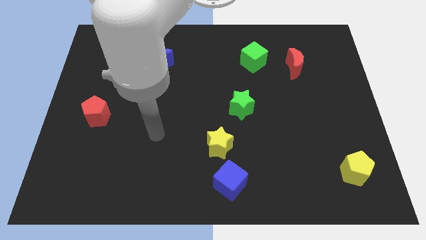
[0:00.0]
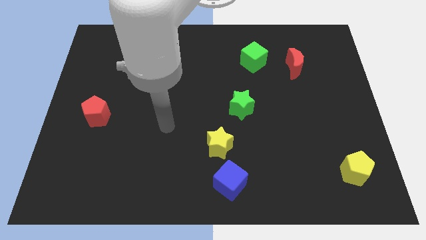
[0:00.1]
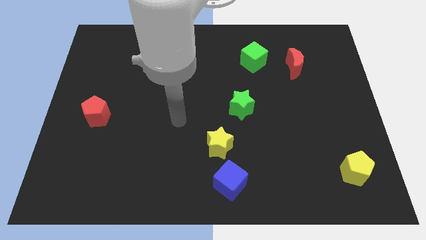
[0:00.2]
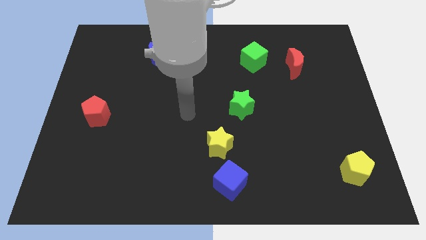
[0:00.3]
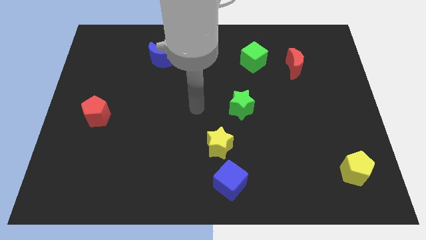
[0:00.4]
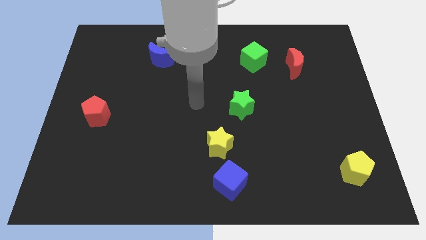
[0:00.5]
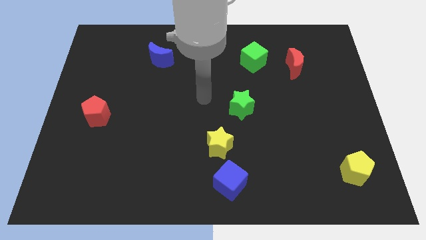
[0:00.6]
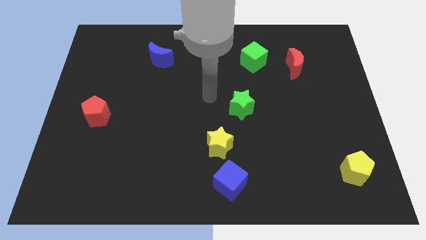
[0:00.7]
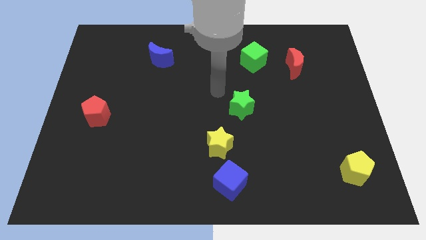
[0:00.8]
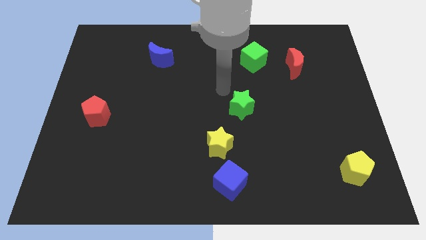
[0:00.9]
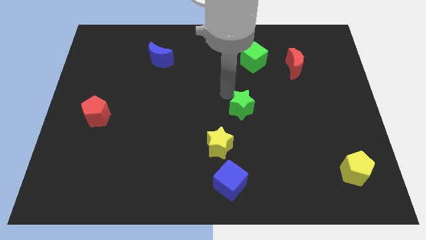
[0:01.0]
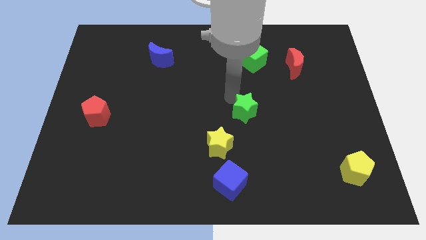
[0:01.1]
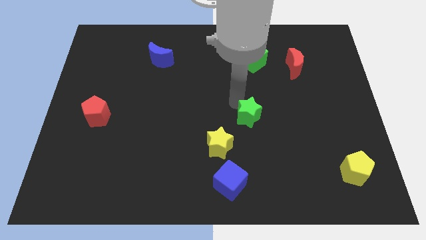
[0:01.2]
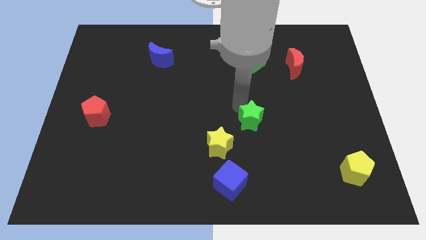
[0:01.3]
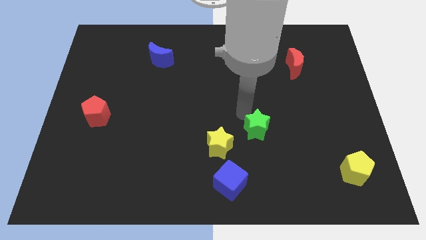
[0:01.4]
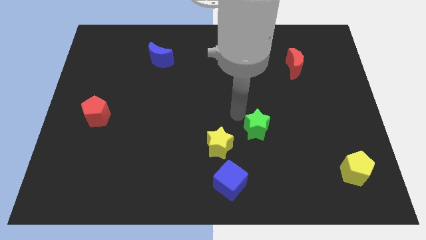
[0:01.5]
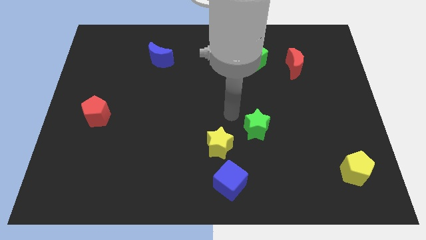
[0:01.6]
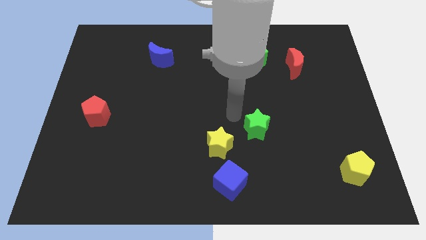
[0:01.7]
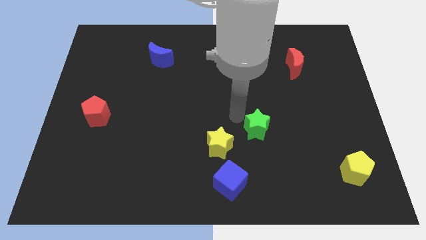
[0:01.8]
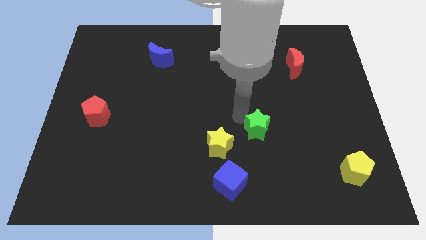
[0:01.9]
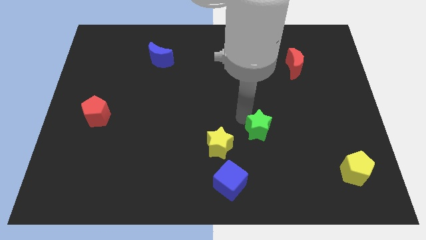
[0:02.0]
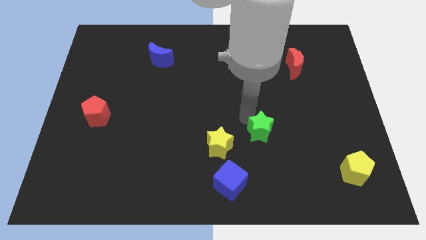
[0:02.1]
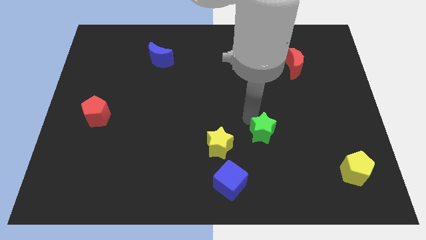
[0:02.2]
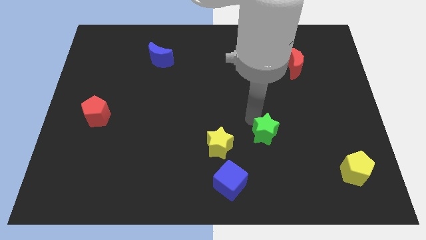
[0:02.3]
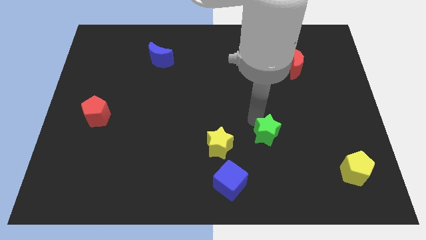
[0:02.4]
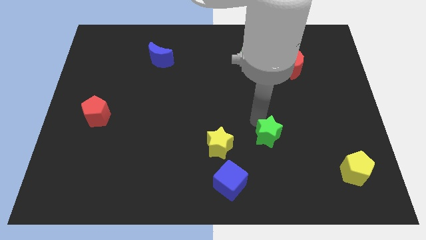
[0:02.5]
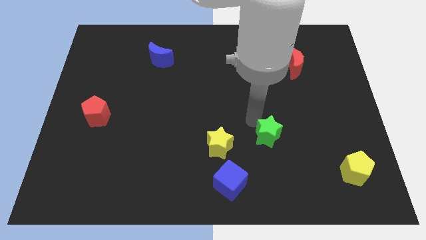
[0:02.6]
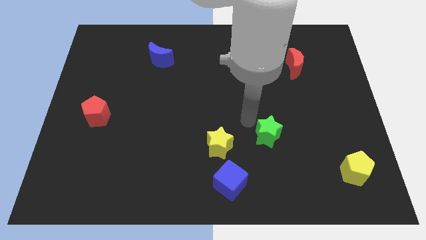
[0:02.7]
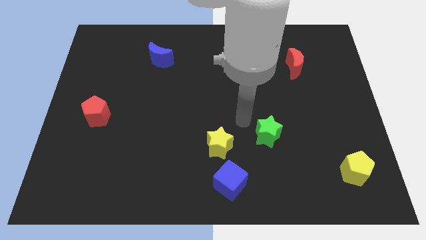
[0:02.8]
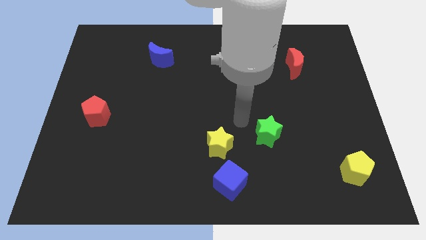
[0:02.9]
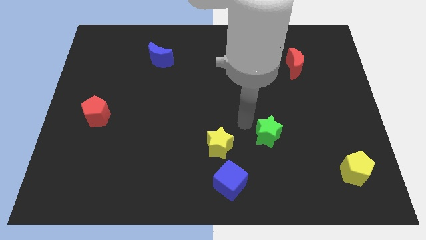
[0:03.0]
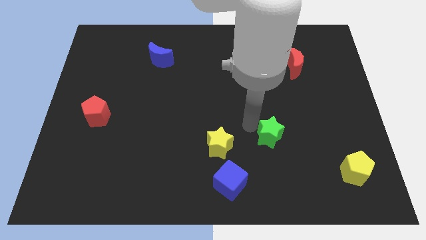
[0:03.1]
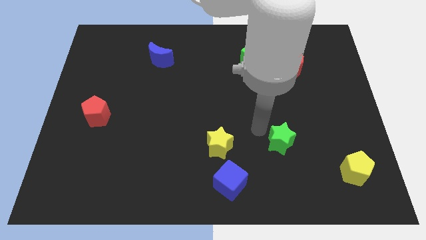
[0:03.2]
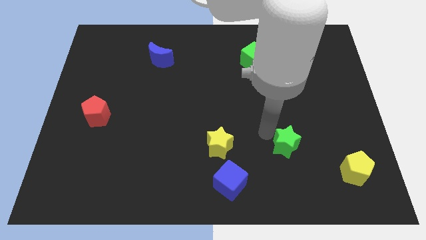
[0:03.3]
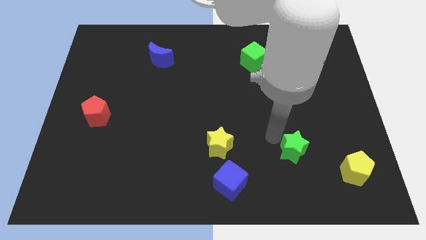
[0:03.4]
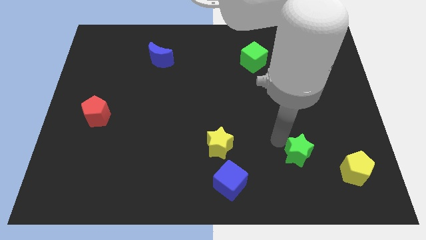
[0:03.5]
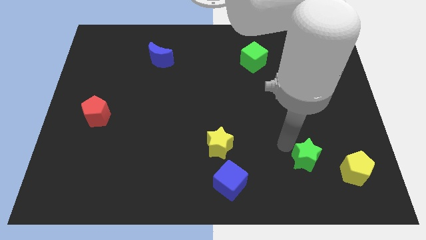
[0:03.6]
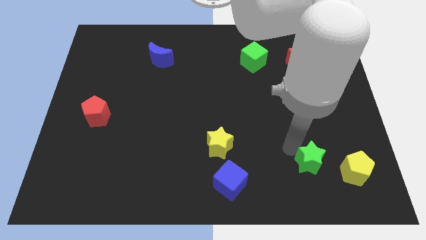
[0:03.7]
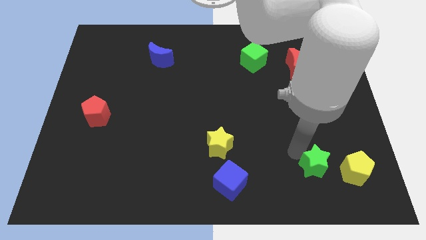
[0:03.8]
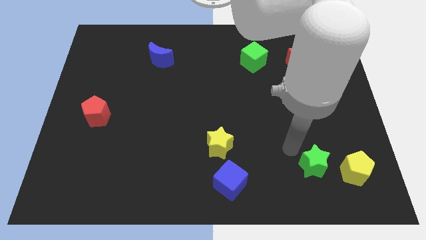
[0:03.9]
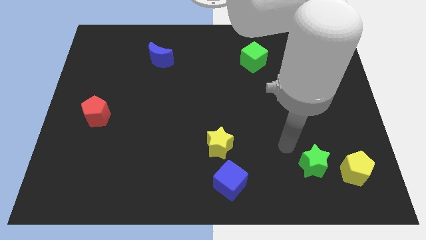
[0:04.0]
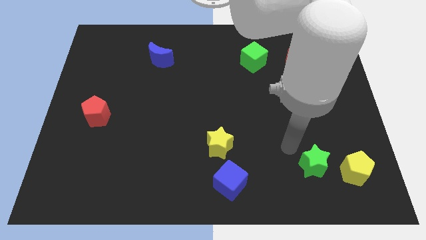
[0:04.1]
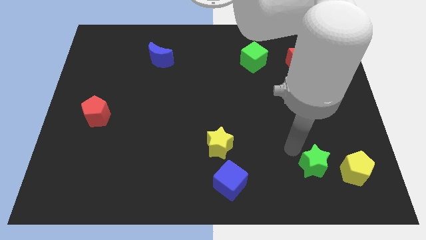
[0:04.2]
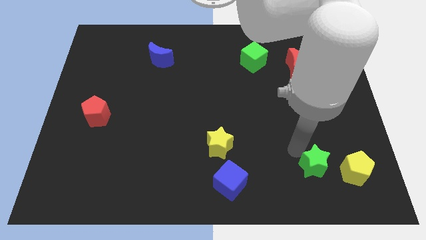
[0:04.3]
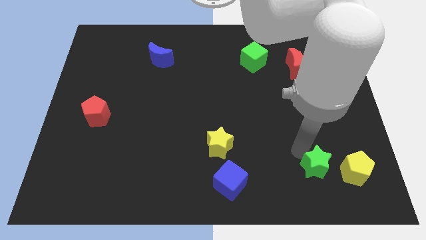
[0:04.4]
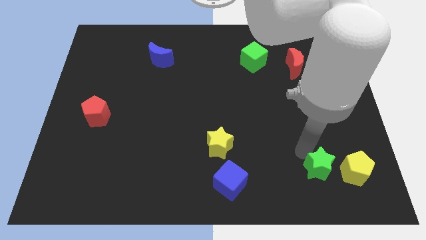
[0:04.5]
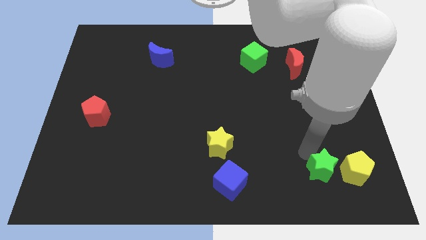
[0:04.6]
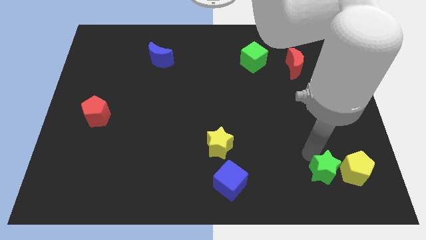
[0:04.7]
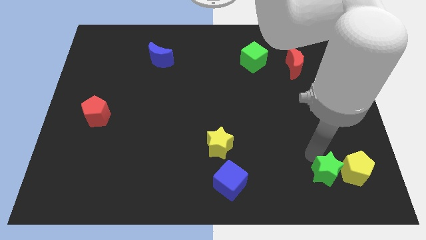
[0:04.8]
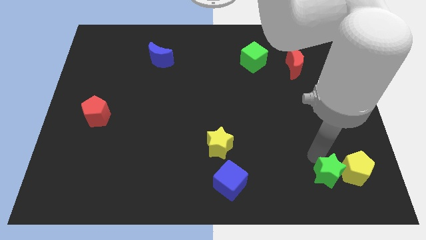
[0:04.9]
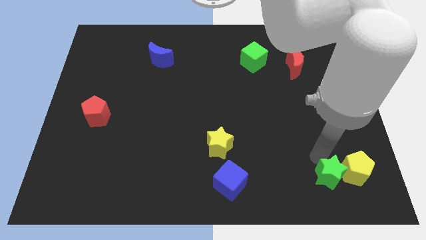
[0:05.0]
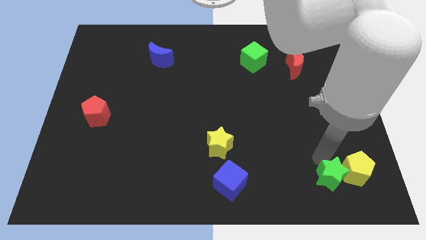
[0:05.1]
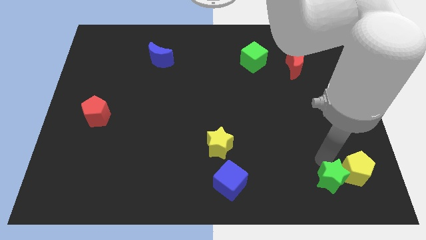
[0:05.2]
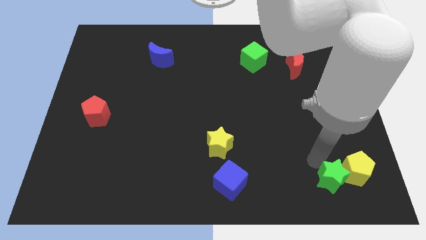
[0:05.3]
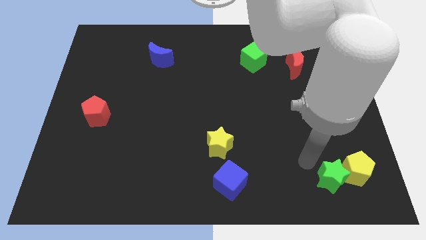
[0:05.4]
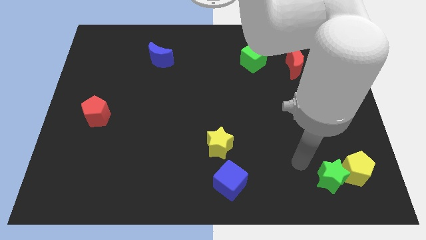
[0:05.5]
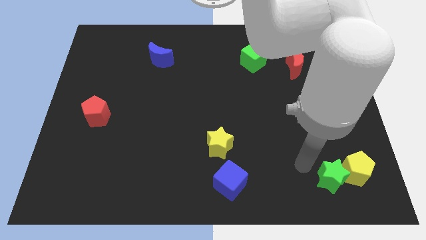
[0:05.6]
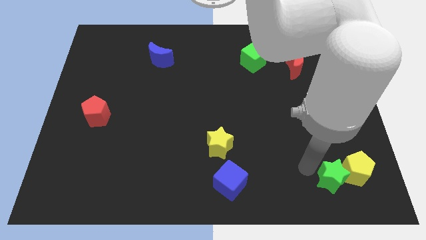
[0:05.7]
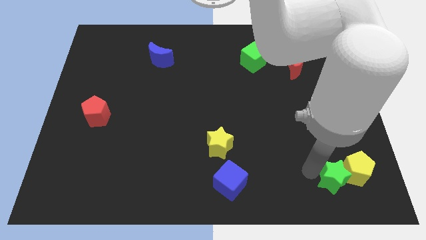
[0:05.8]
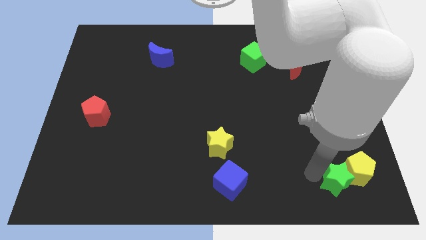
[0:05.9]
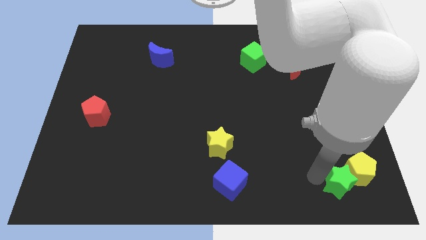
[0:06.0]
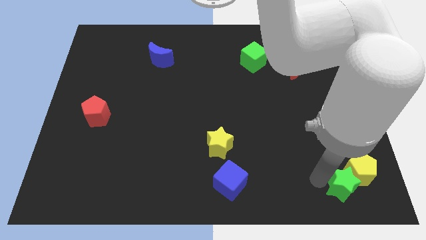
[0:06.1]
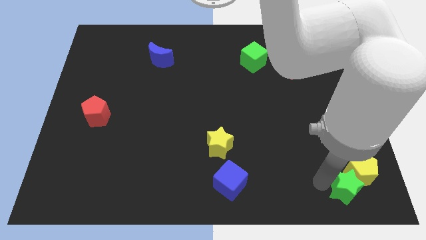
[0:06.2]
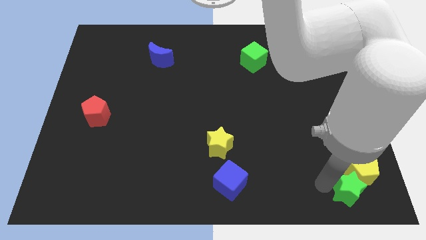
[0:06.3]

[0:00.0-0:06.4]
slide the green star to the bottom right of the board
